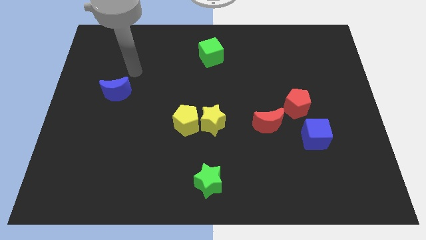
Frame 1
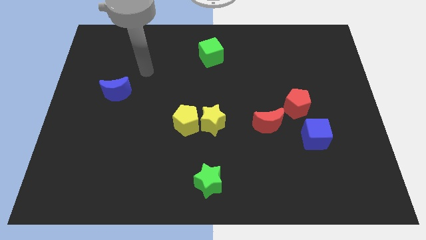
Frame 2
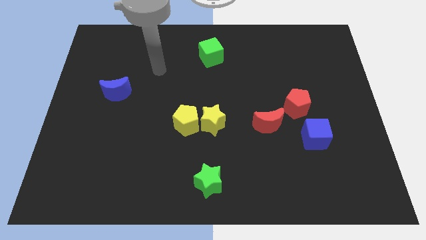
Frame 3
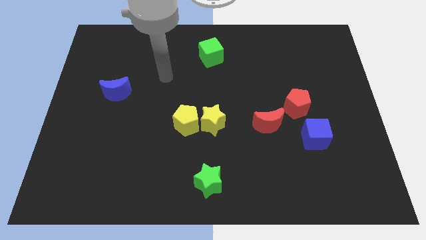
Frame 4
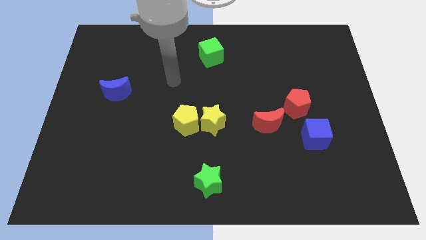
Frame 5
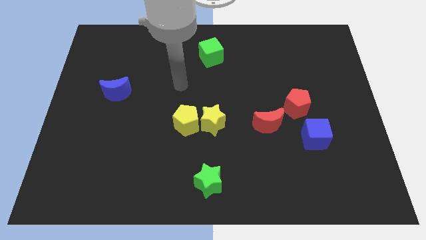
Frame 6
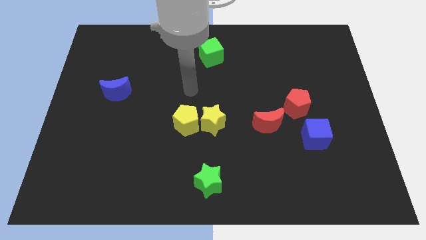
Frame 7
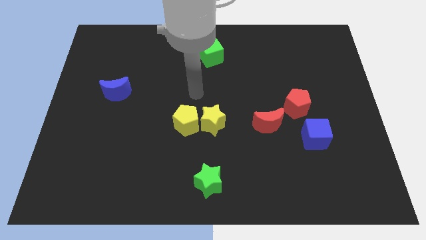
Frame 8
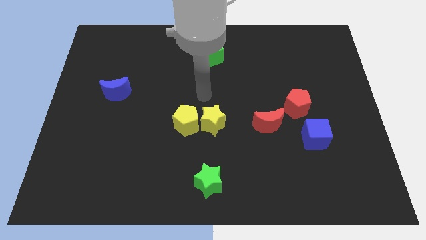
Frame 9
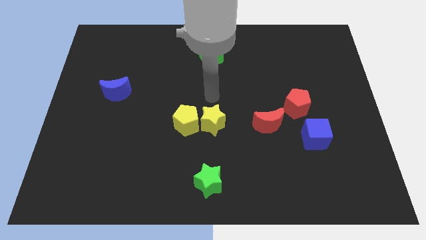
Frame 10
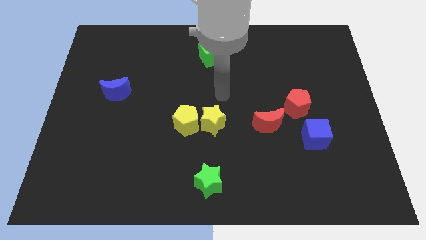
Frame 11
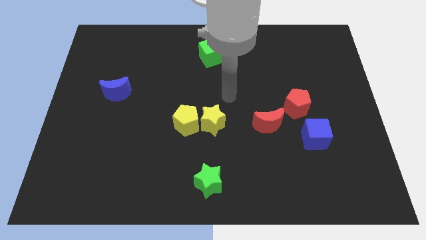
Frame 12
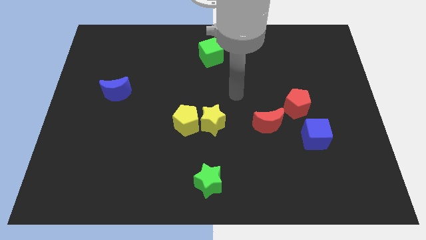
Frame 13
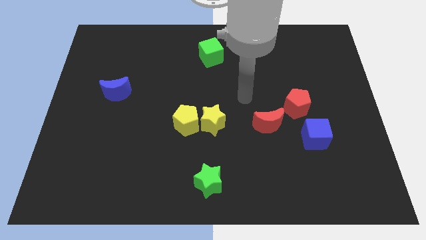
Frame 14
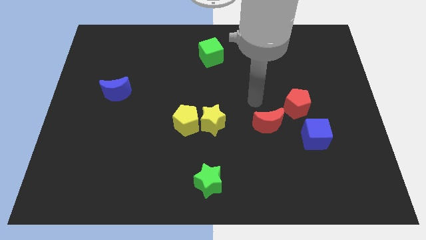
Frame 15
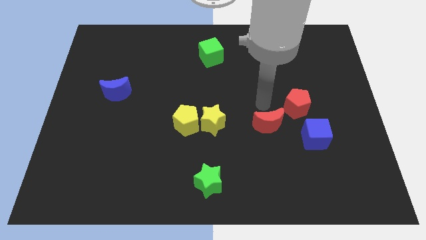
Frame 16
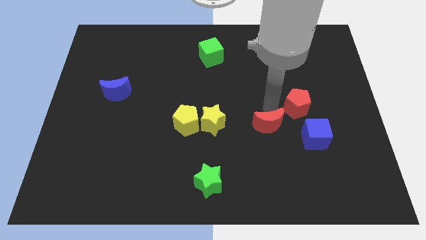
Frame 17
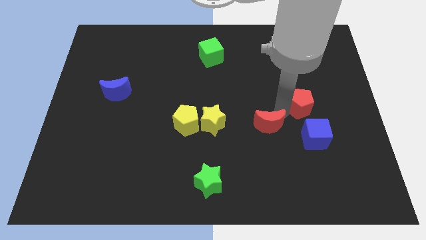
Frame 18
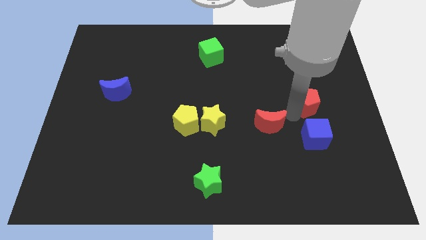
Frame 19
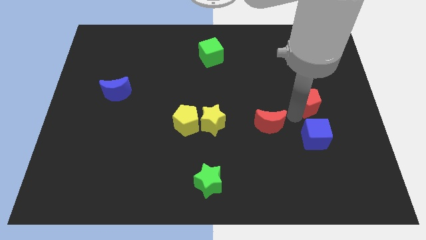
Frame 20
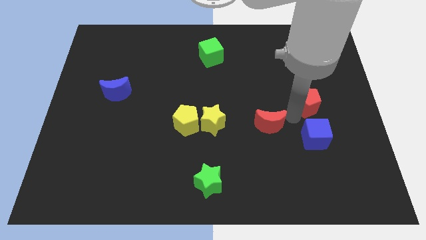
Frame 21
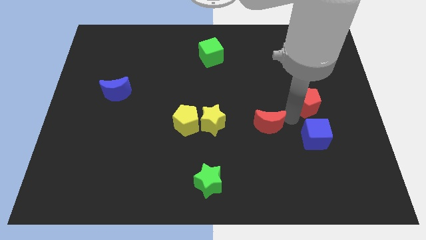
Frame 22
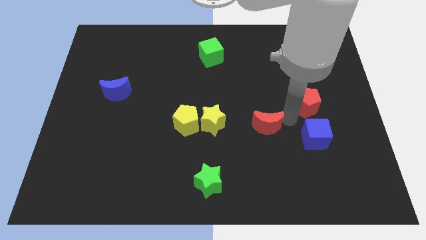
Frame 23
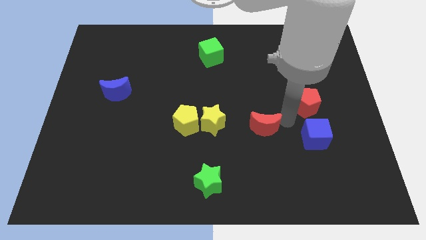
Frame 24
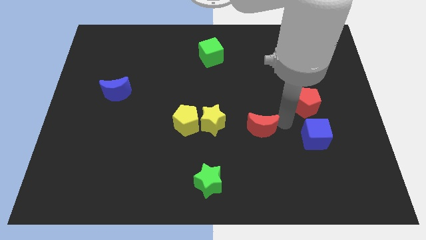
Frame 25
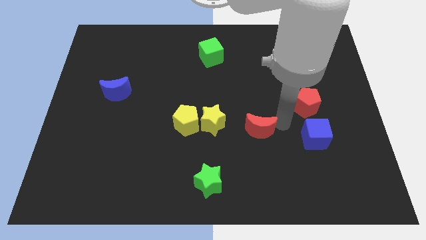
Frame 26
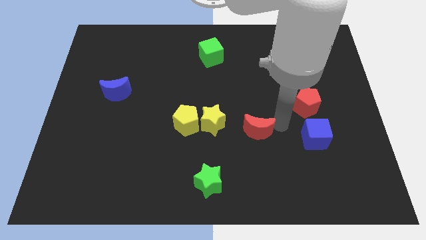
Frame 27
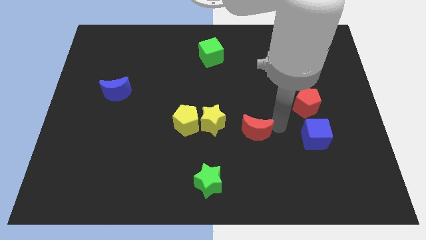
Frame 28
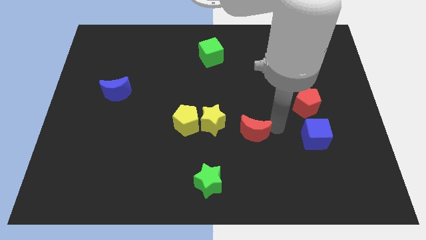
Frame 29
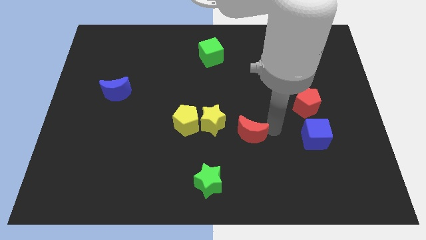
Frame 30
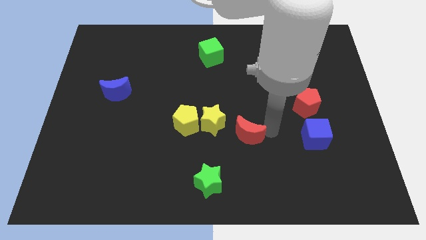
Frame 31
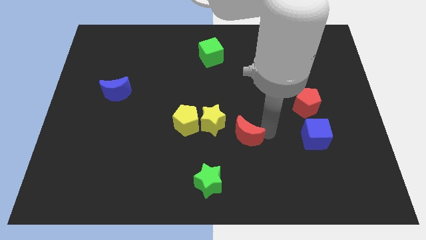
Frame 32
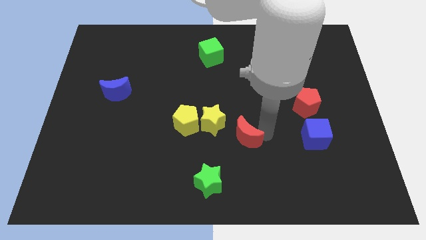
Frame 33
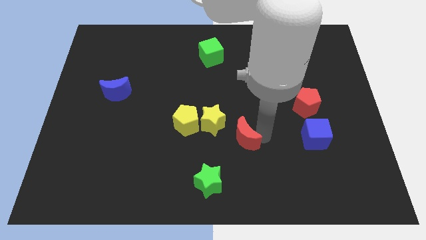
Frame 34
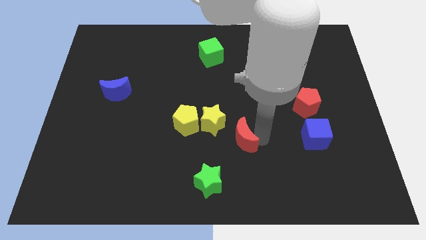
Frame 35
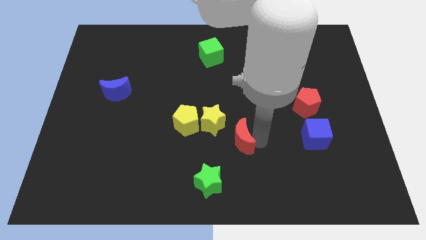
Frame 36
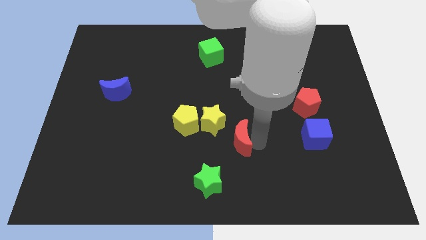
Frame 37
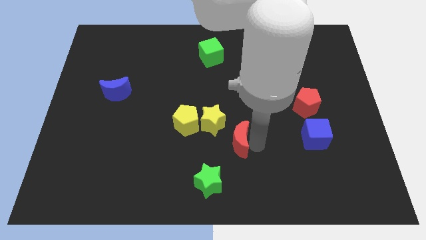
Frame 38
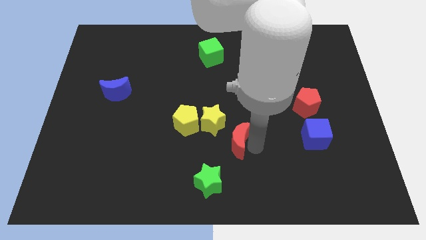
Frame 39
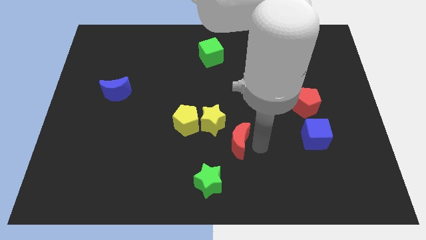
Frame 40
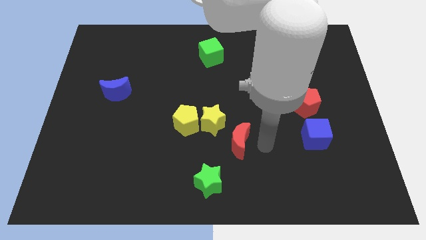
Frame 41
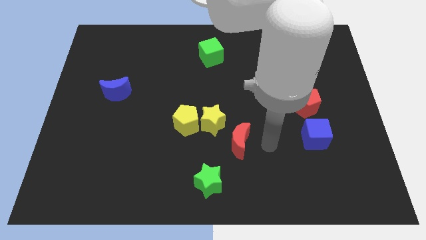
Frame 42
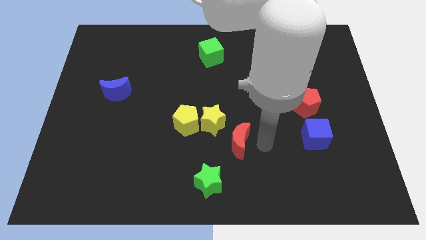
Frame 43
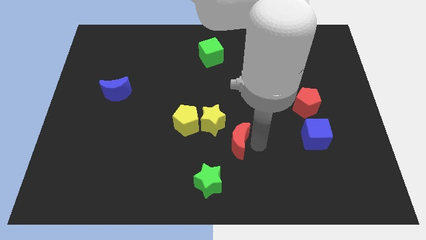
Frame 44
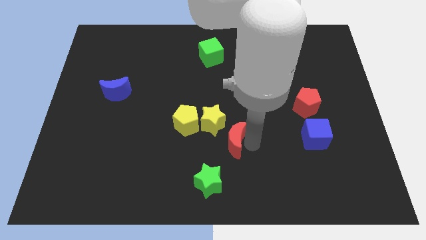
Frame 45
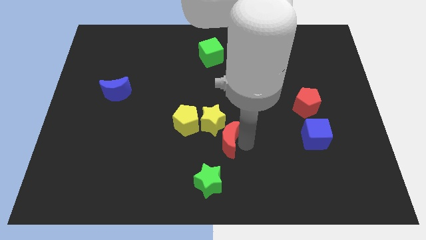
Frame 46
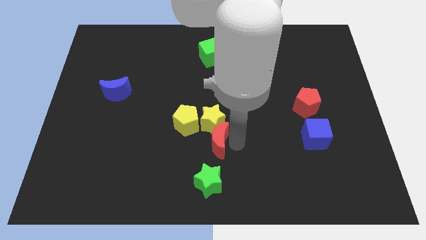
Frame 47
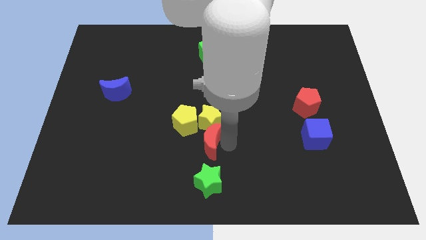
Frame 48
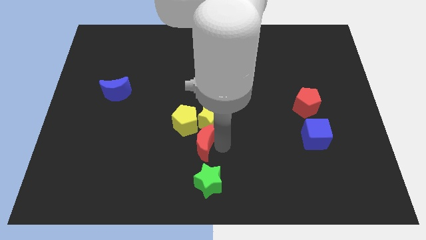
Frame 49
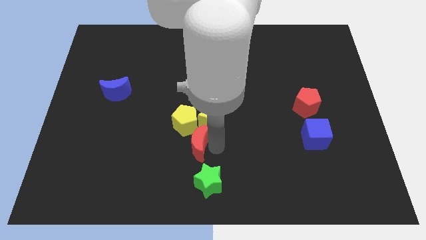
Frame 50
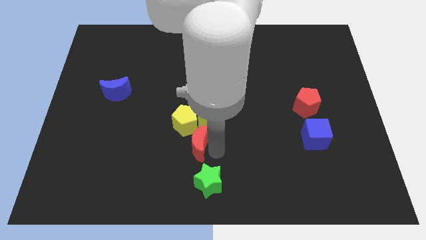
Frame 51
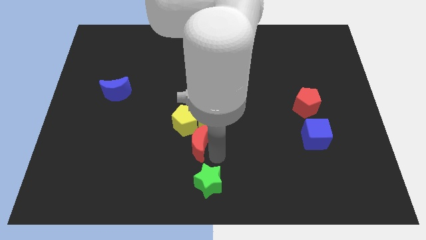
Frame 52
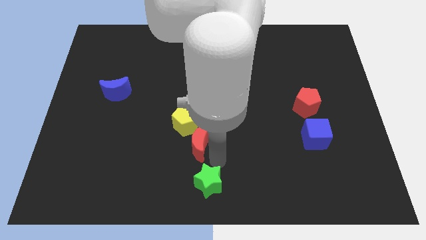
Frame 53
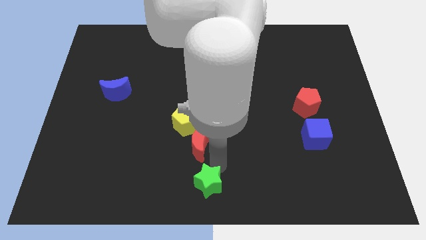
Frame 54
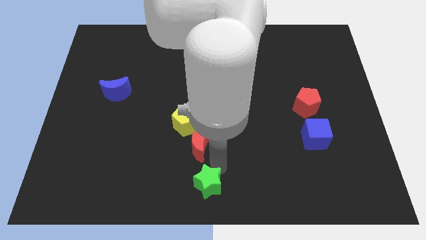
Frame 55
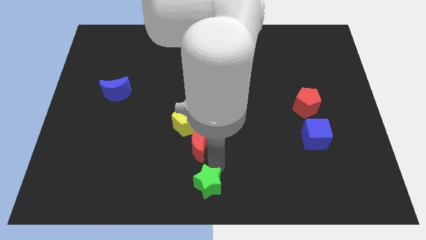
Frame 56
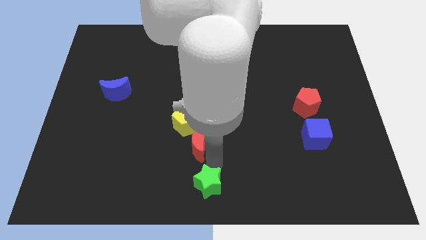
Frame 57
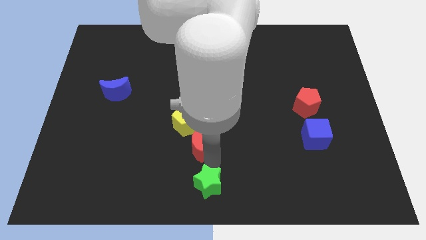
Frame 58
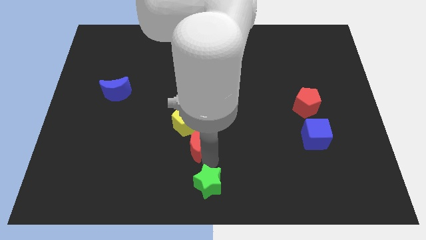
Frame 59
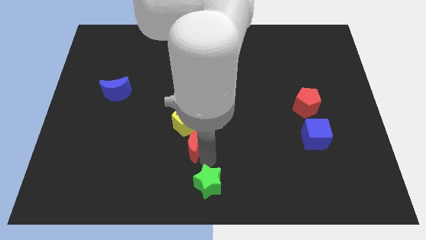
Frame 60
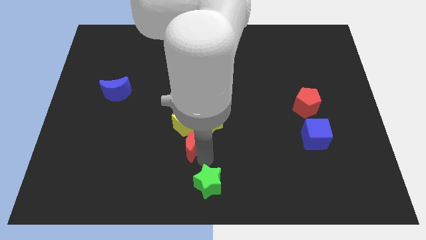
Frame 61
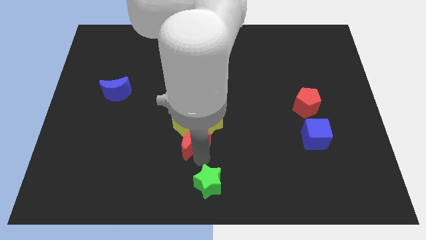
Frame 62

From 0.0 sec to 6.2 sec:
push the red moon close to the yellow pentagon

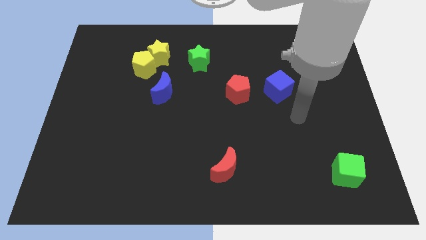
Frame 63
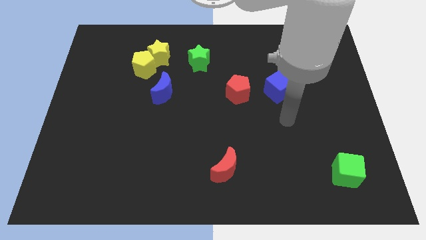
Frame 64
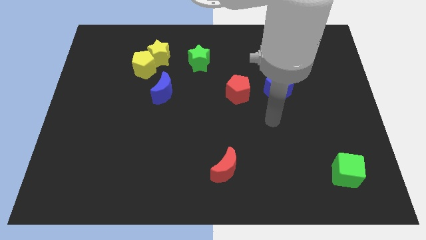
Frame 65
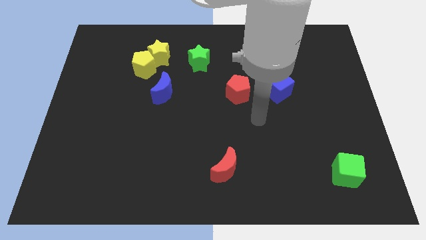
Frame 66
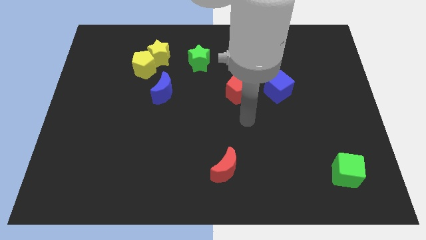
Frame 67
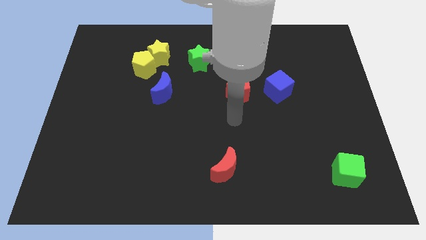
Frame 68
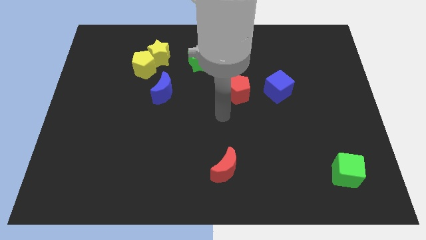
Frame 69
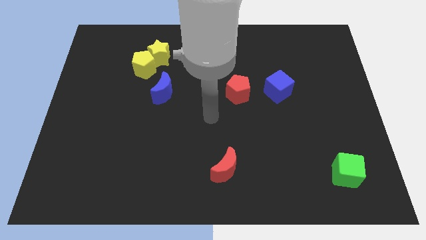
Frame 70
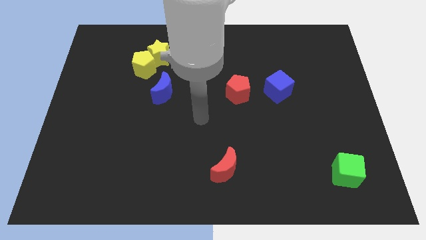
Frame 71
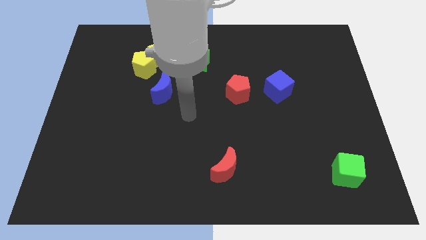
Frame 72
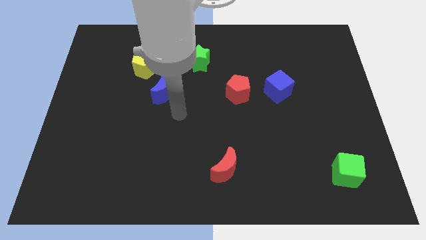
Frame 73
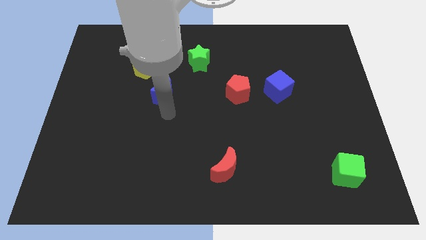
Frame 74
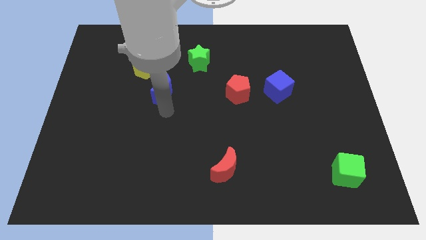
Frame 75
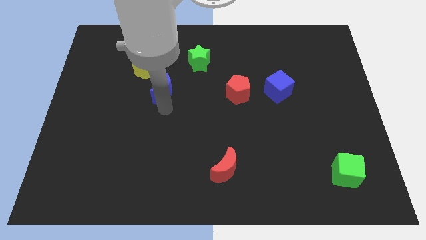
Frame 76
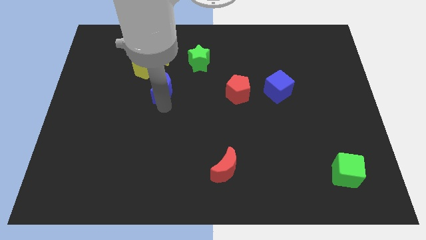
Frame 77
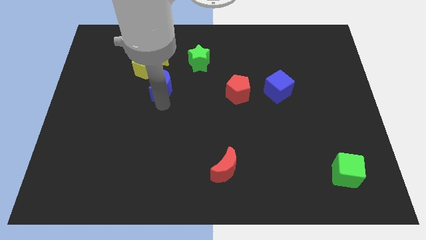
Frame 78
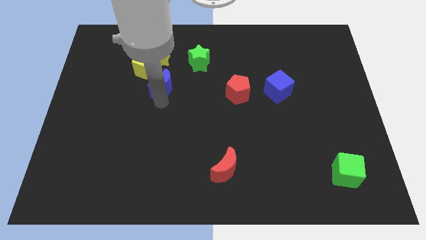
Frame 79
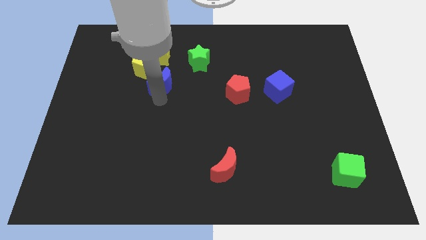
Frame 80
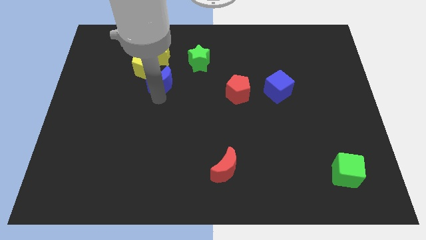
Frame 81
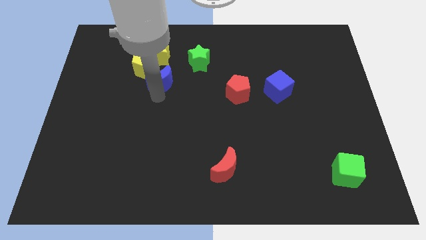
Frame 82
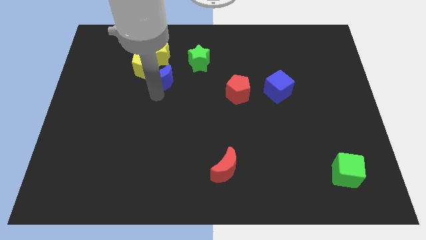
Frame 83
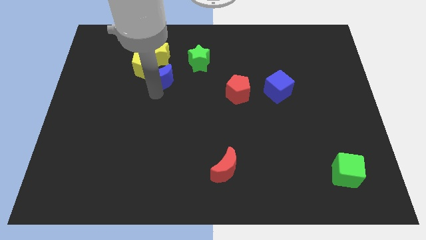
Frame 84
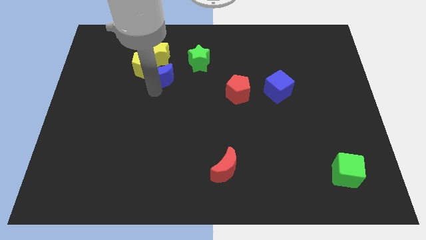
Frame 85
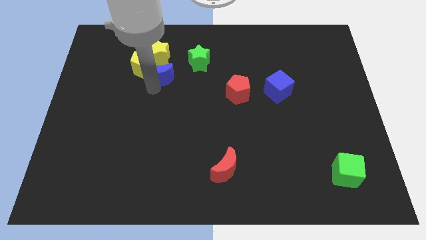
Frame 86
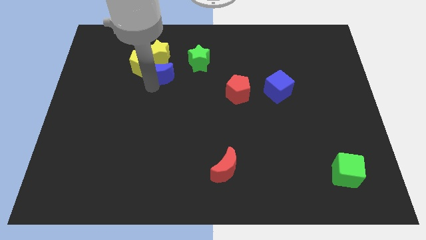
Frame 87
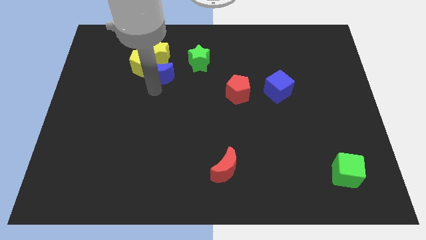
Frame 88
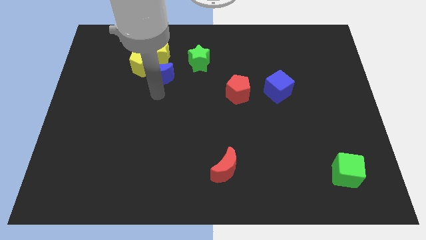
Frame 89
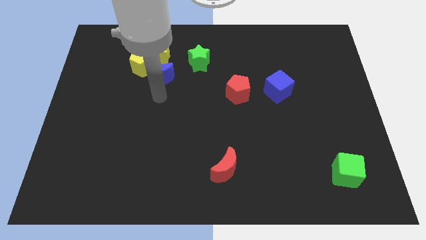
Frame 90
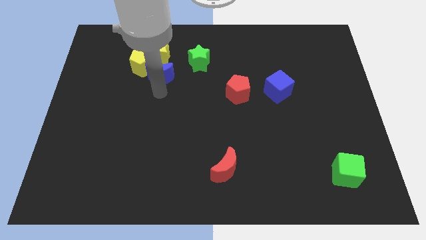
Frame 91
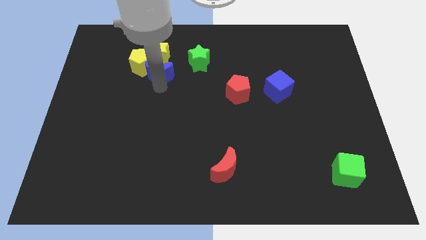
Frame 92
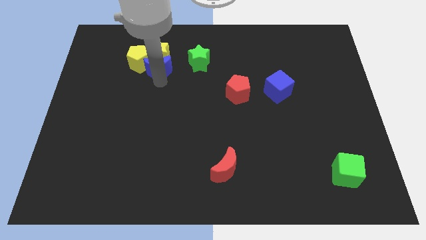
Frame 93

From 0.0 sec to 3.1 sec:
push the blue moon to the yellow star
